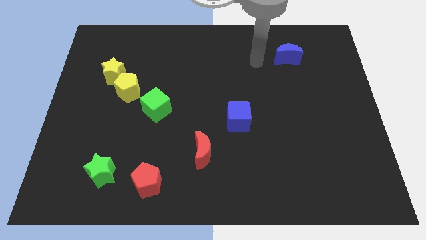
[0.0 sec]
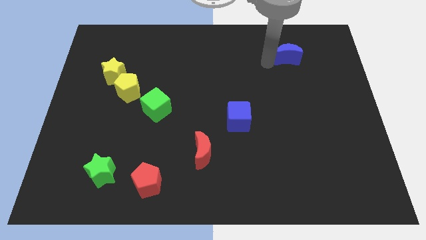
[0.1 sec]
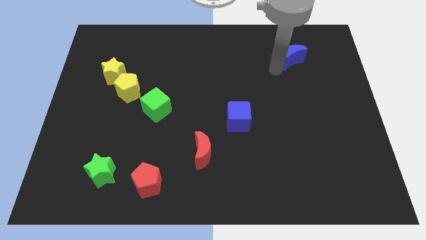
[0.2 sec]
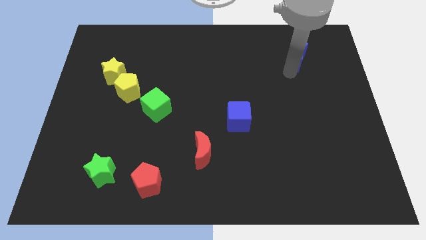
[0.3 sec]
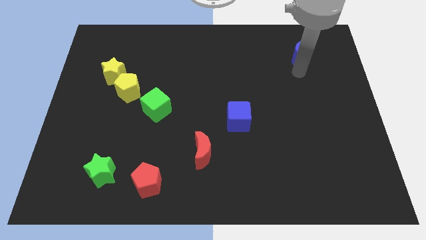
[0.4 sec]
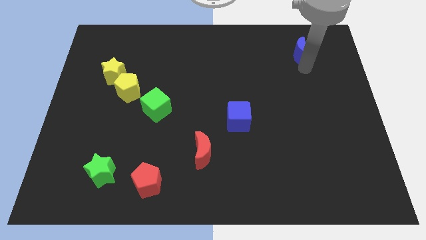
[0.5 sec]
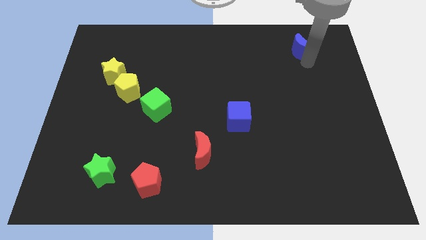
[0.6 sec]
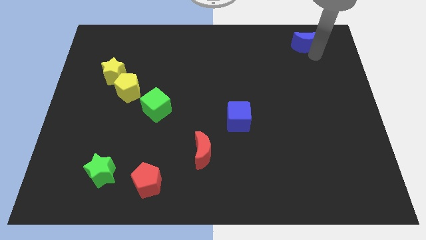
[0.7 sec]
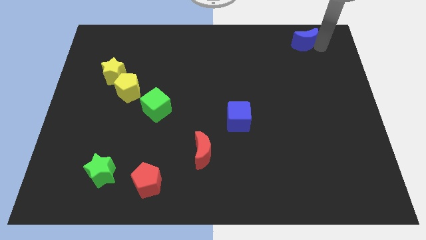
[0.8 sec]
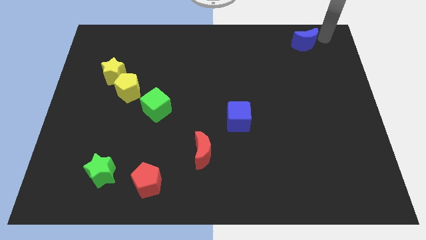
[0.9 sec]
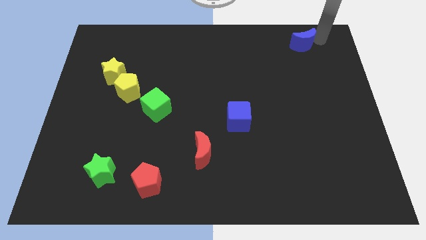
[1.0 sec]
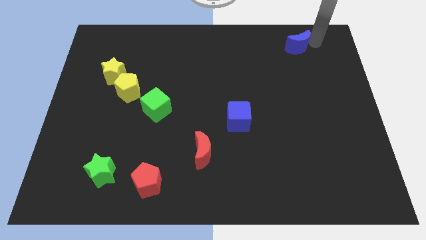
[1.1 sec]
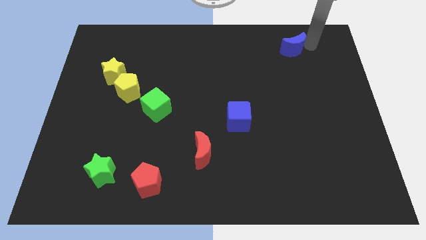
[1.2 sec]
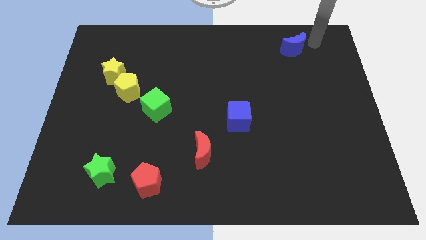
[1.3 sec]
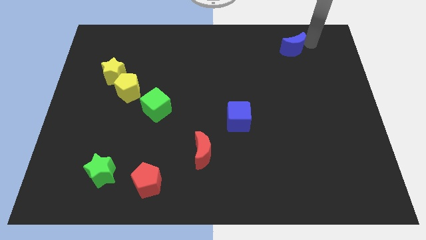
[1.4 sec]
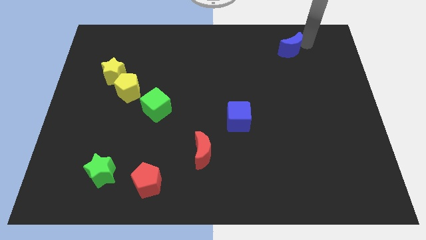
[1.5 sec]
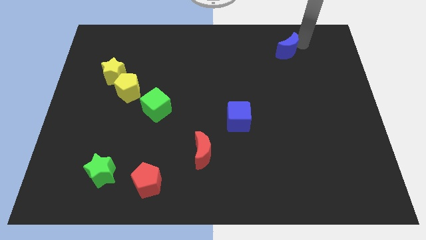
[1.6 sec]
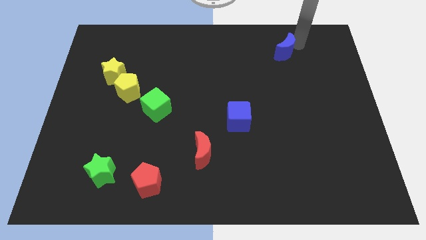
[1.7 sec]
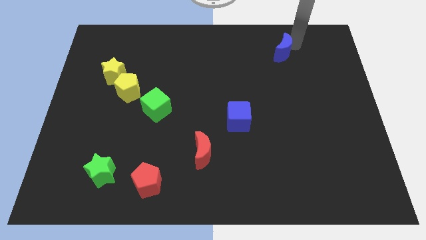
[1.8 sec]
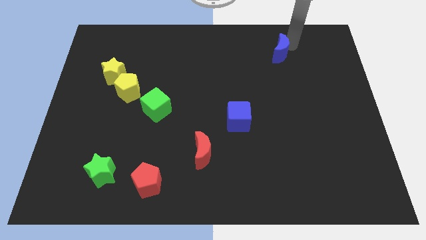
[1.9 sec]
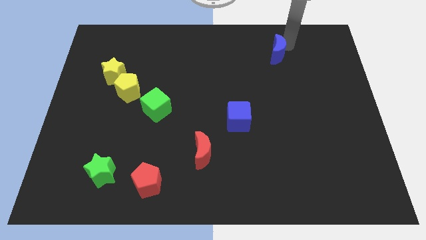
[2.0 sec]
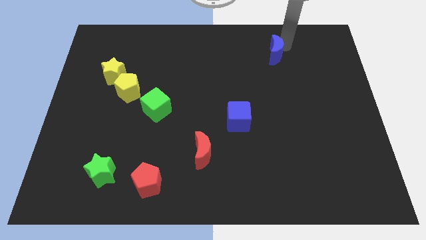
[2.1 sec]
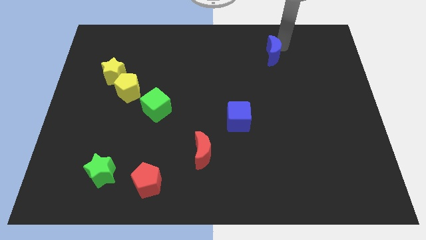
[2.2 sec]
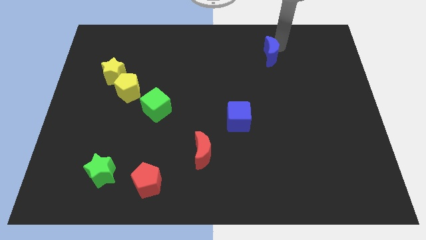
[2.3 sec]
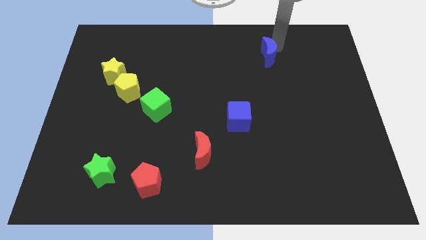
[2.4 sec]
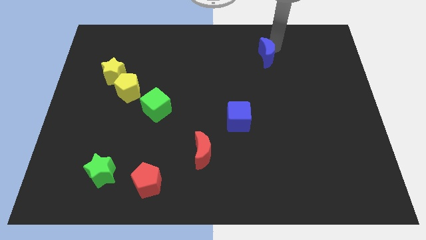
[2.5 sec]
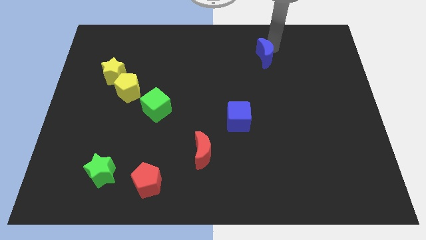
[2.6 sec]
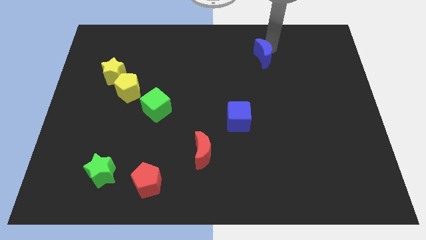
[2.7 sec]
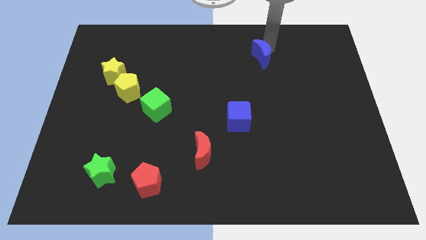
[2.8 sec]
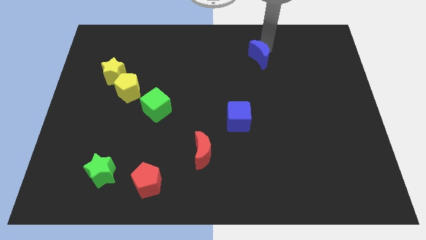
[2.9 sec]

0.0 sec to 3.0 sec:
push the blue moon to the left a bit

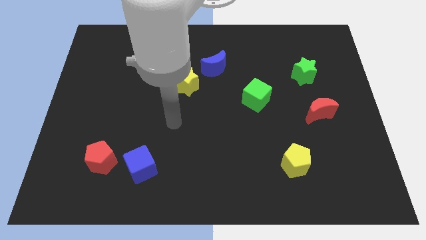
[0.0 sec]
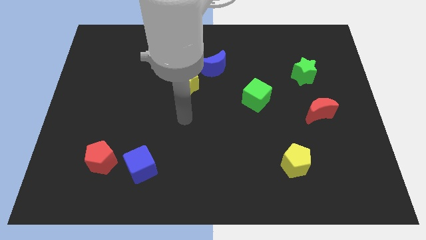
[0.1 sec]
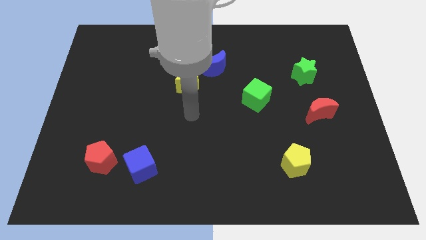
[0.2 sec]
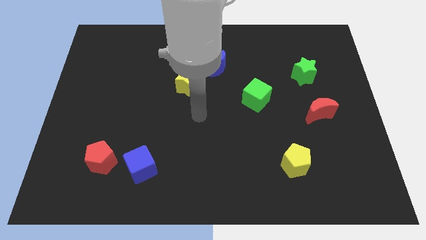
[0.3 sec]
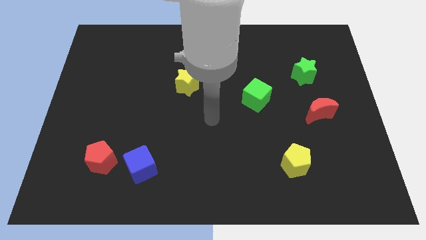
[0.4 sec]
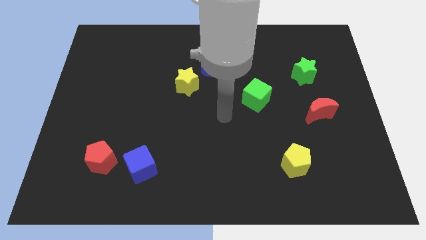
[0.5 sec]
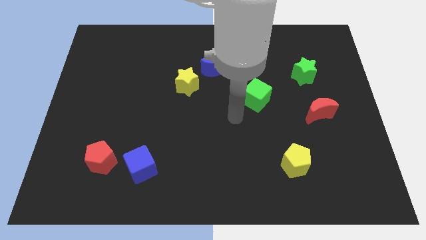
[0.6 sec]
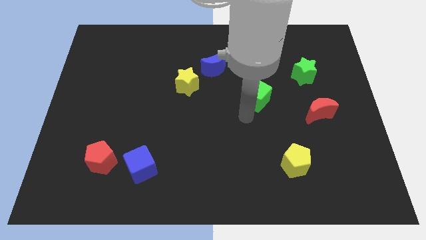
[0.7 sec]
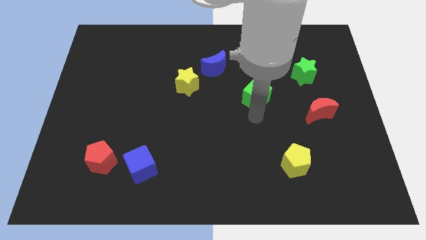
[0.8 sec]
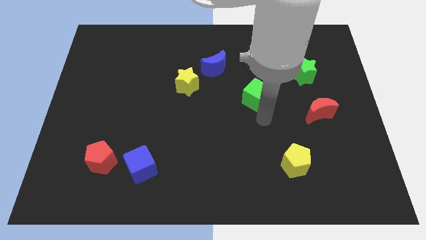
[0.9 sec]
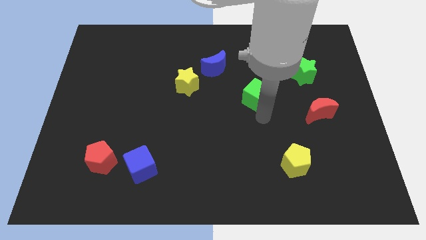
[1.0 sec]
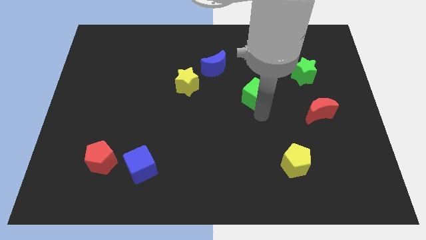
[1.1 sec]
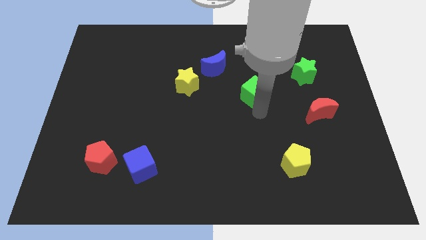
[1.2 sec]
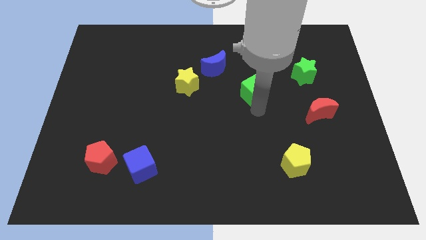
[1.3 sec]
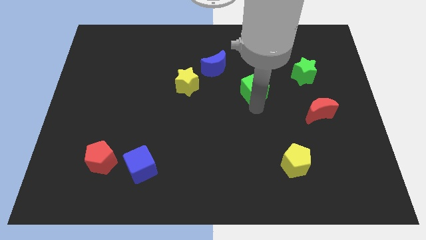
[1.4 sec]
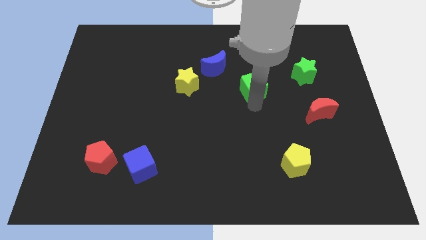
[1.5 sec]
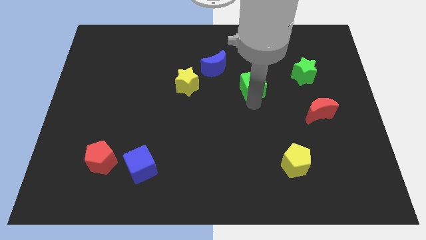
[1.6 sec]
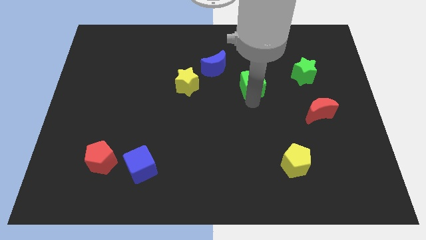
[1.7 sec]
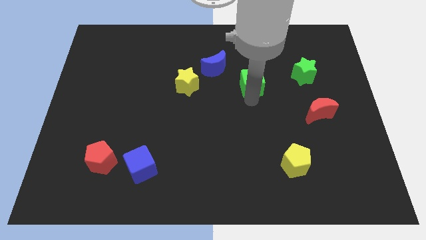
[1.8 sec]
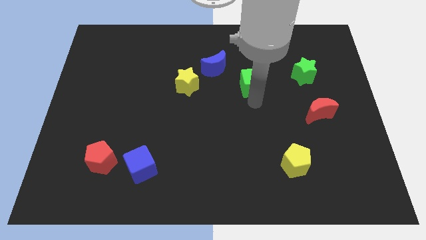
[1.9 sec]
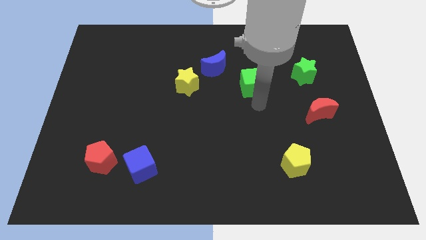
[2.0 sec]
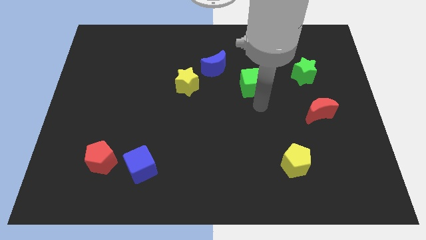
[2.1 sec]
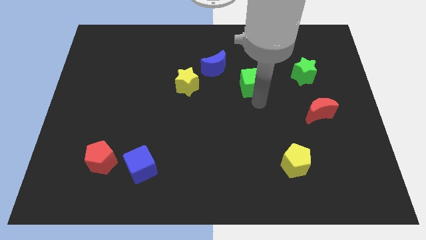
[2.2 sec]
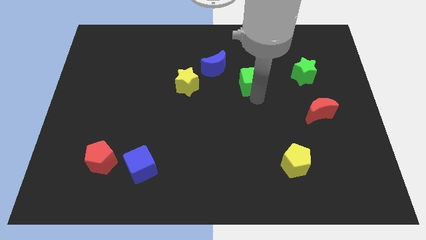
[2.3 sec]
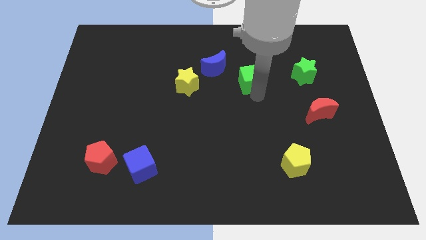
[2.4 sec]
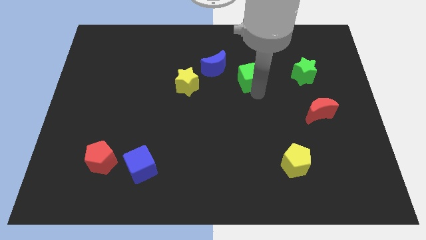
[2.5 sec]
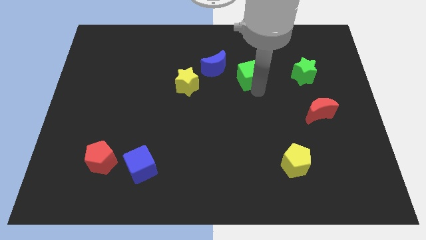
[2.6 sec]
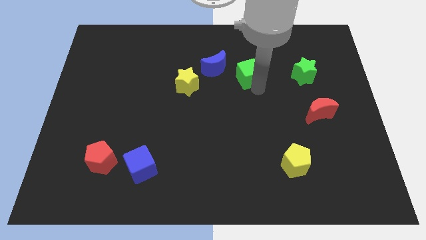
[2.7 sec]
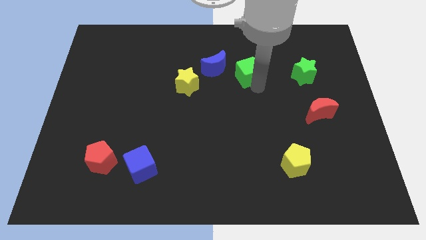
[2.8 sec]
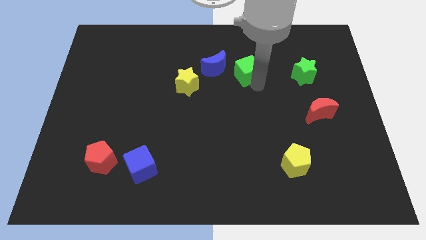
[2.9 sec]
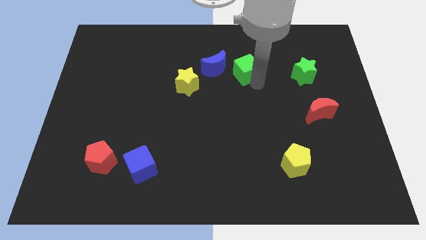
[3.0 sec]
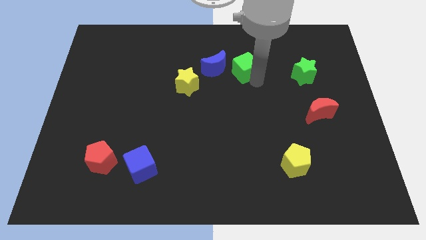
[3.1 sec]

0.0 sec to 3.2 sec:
slightly move the green cube up and to the left

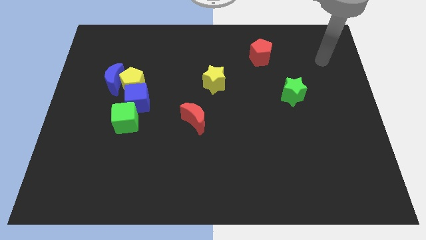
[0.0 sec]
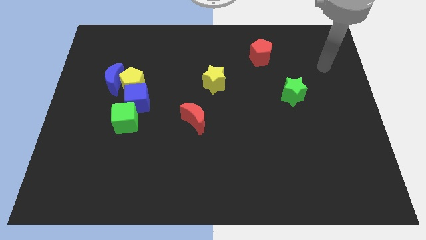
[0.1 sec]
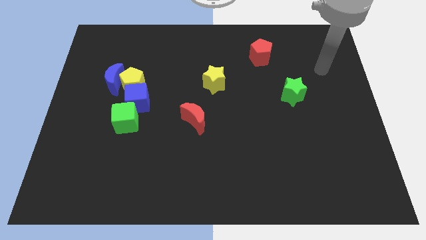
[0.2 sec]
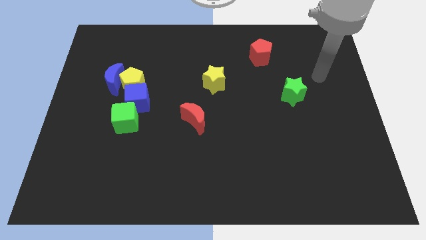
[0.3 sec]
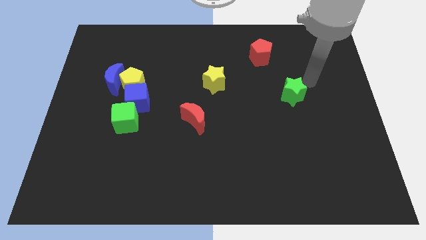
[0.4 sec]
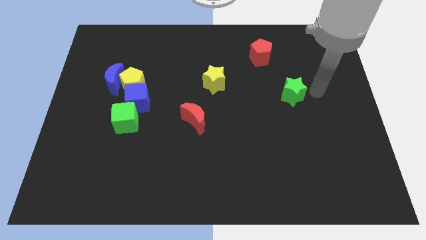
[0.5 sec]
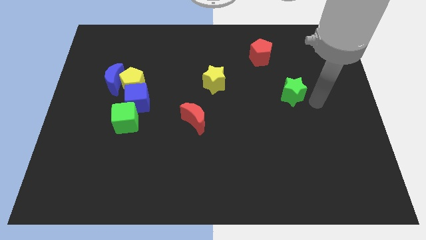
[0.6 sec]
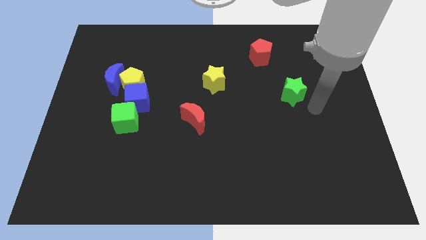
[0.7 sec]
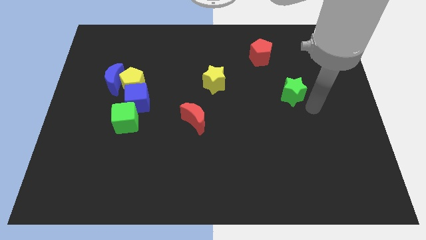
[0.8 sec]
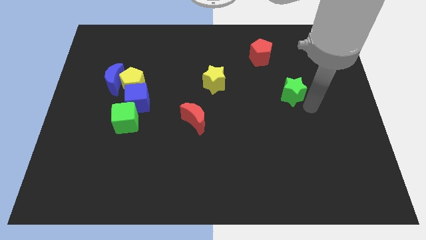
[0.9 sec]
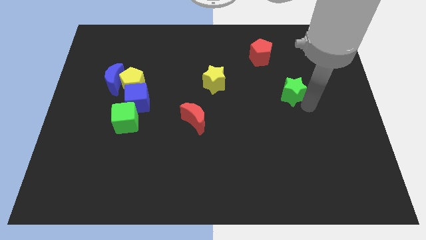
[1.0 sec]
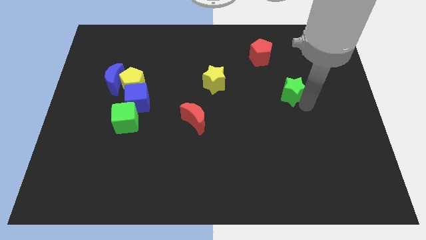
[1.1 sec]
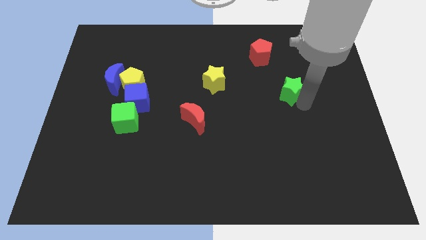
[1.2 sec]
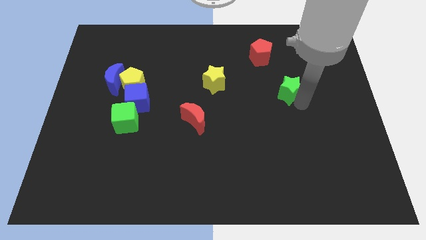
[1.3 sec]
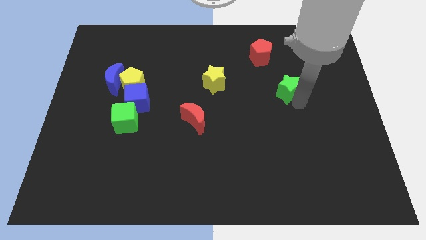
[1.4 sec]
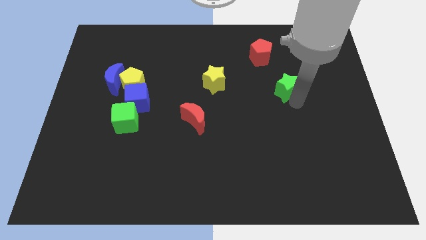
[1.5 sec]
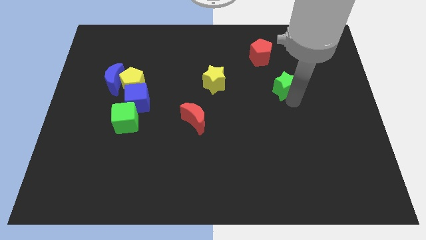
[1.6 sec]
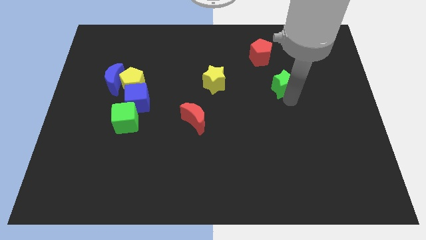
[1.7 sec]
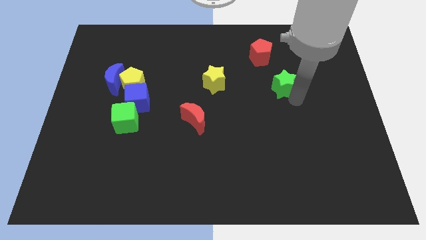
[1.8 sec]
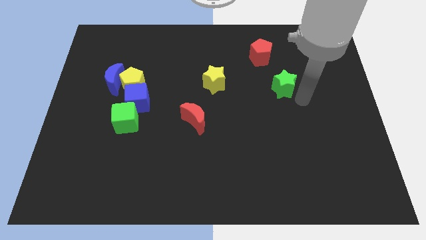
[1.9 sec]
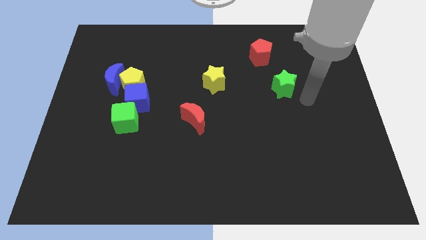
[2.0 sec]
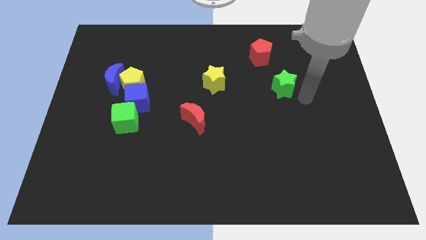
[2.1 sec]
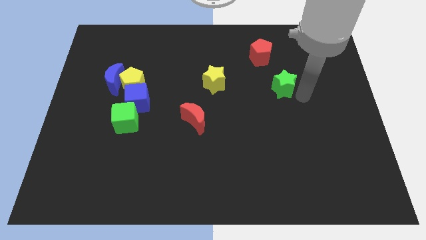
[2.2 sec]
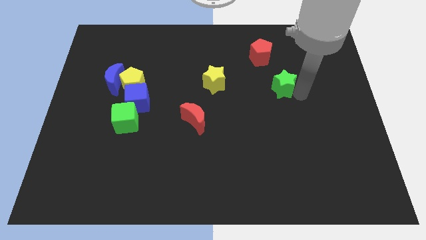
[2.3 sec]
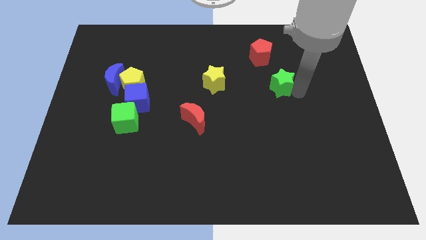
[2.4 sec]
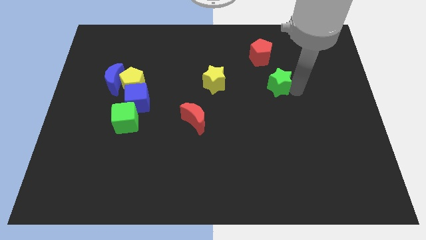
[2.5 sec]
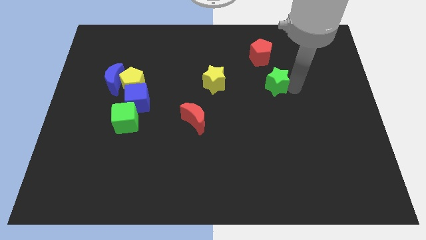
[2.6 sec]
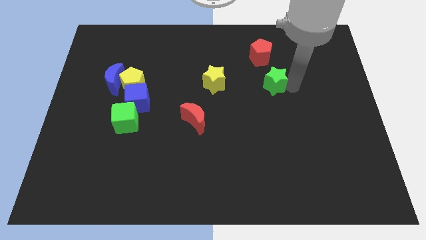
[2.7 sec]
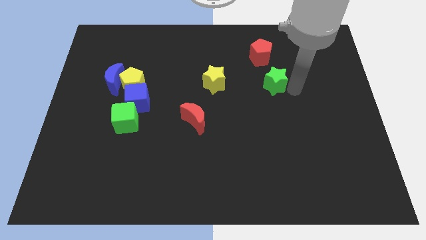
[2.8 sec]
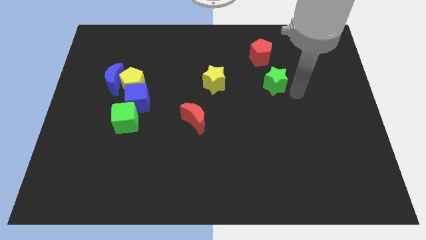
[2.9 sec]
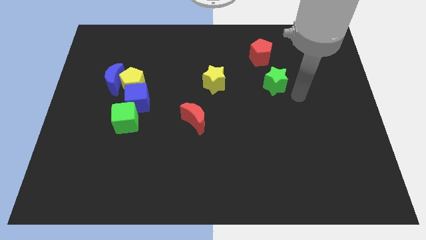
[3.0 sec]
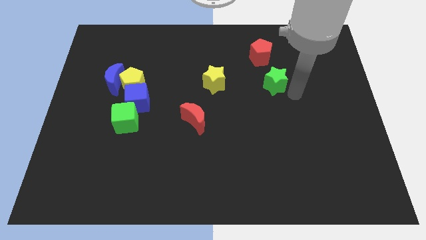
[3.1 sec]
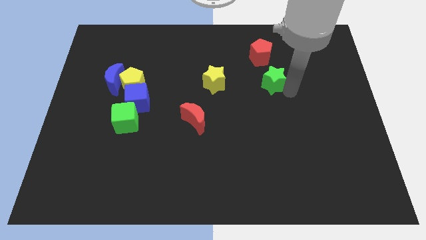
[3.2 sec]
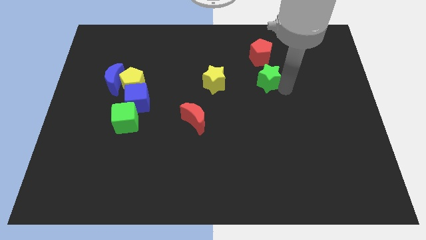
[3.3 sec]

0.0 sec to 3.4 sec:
slightly push the green star upwards and to the left
